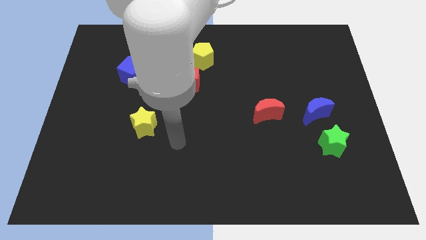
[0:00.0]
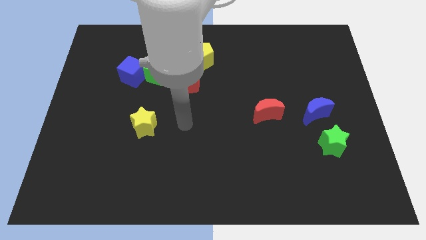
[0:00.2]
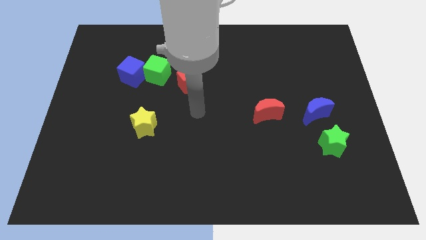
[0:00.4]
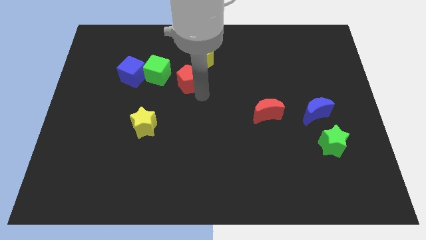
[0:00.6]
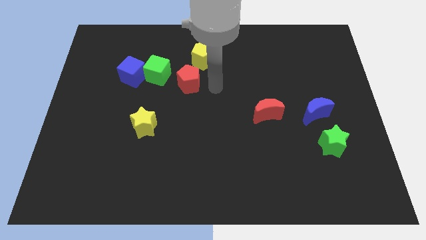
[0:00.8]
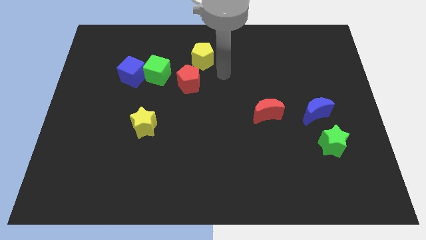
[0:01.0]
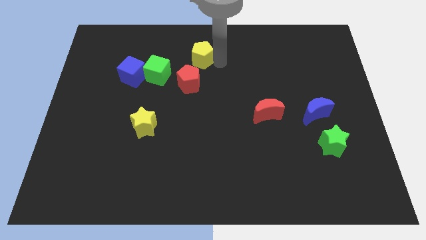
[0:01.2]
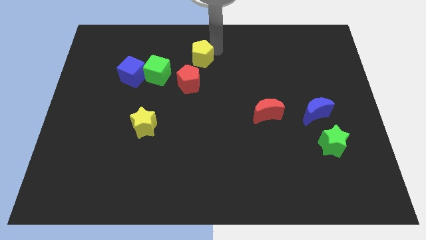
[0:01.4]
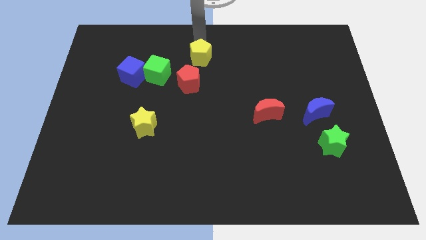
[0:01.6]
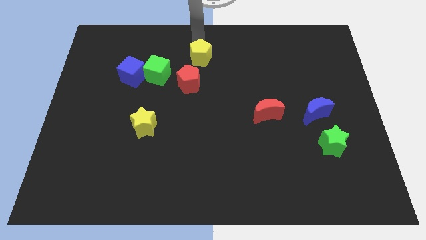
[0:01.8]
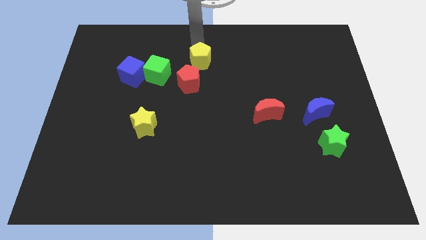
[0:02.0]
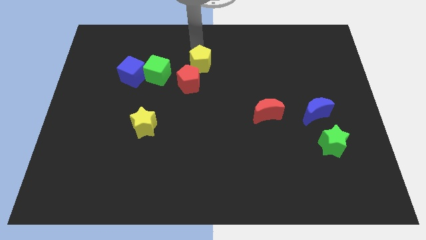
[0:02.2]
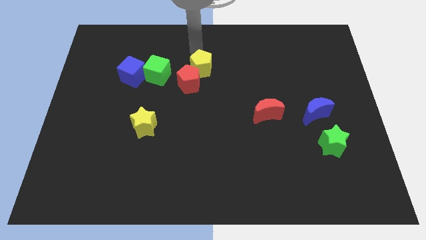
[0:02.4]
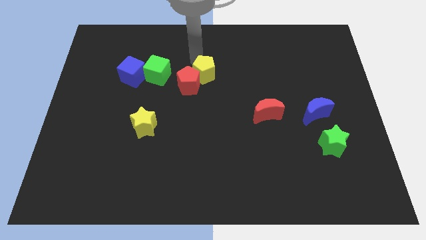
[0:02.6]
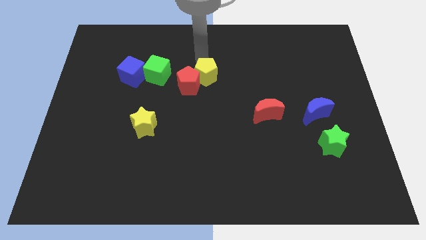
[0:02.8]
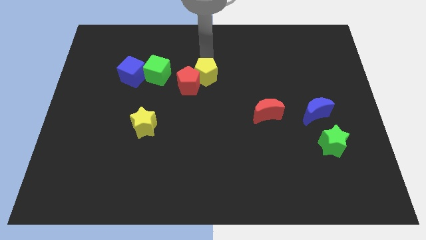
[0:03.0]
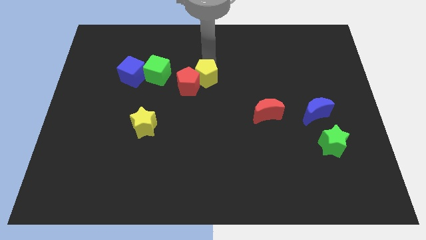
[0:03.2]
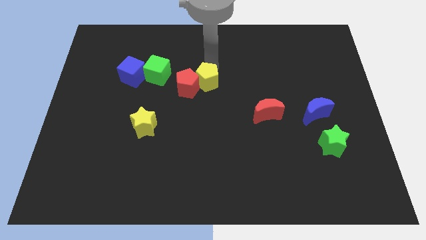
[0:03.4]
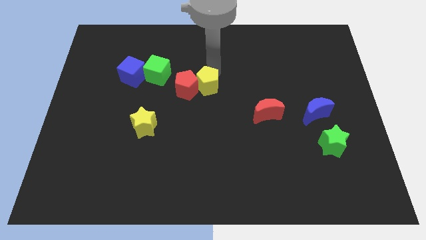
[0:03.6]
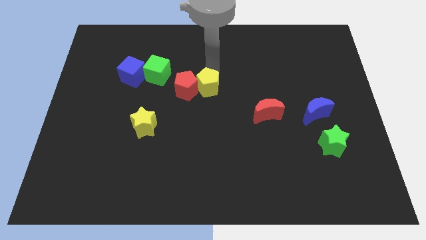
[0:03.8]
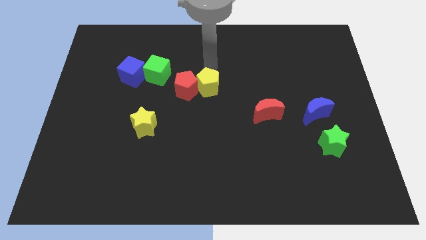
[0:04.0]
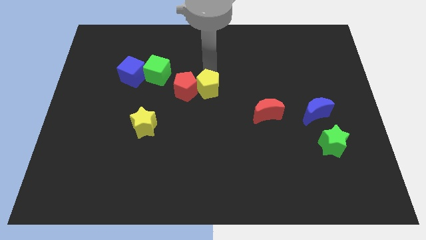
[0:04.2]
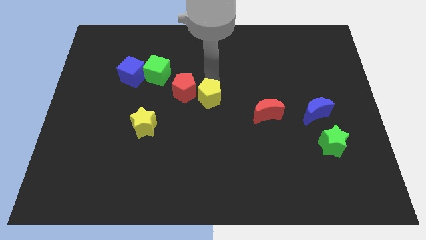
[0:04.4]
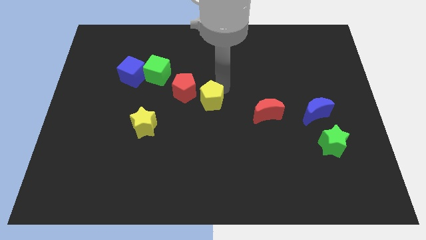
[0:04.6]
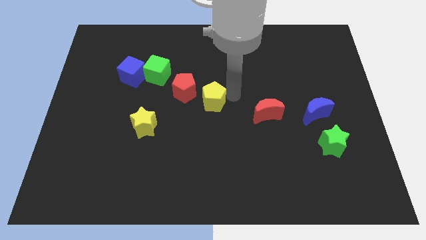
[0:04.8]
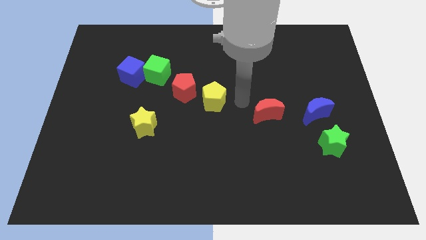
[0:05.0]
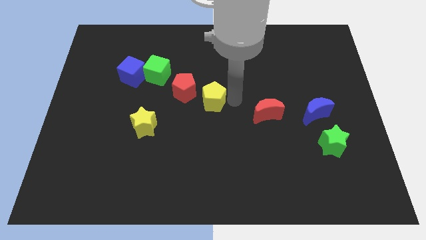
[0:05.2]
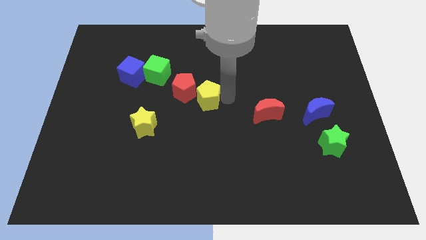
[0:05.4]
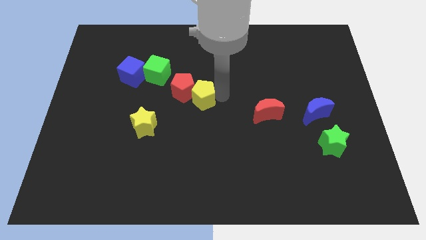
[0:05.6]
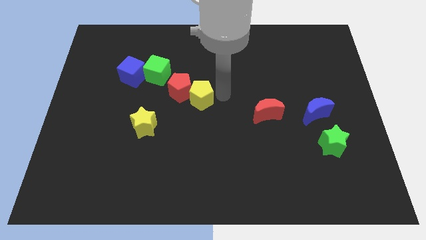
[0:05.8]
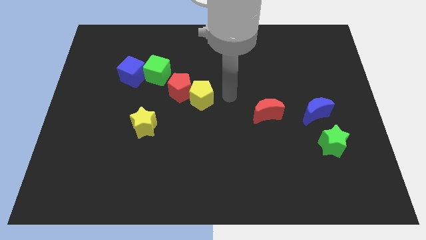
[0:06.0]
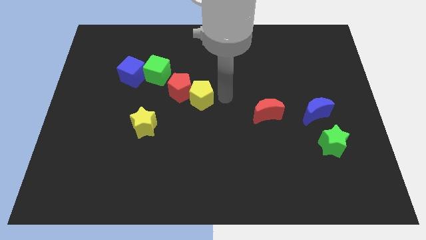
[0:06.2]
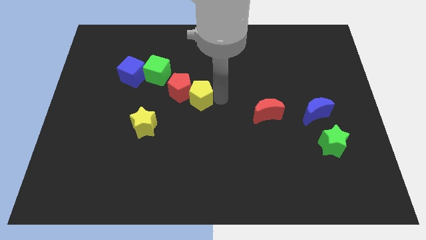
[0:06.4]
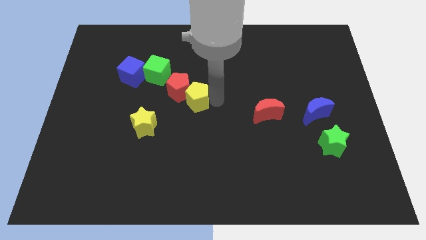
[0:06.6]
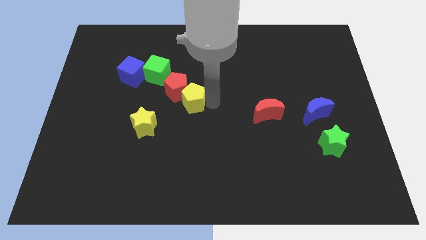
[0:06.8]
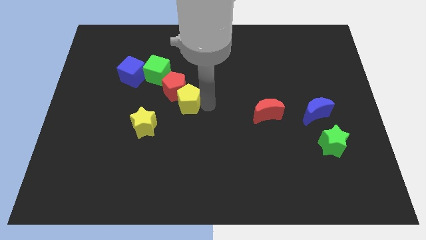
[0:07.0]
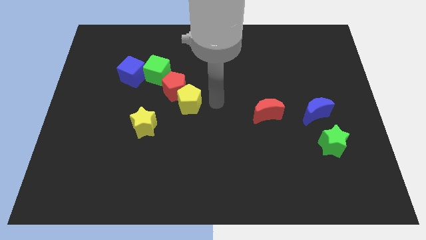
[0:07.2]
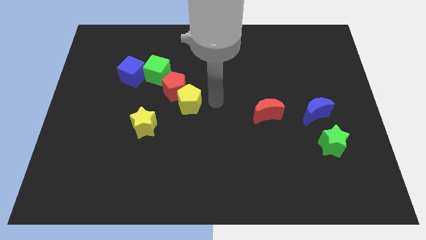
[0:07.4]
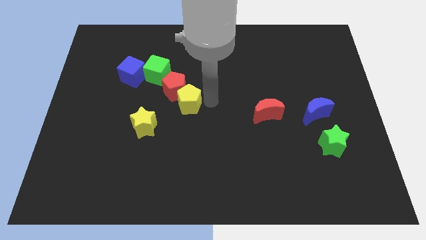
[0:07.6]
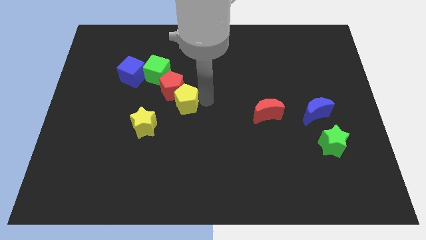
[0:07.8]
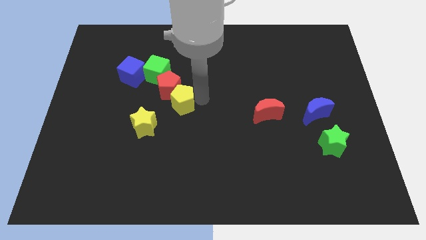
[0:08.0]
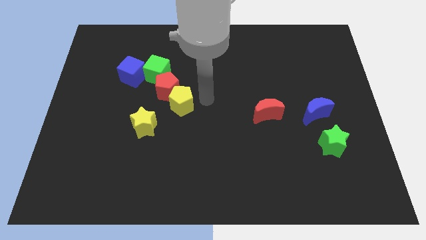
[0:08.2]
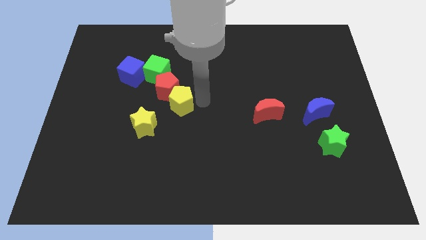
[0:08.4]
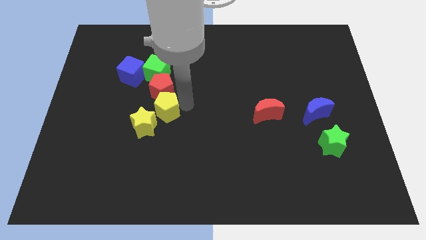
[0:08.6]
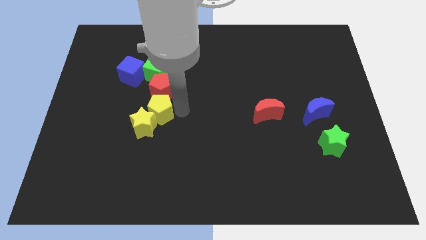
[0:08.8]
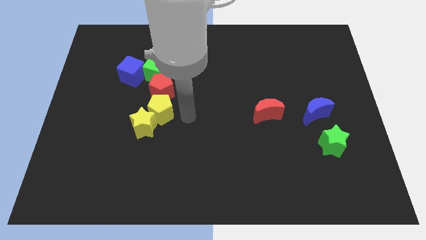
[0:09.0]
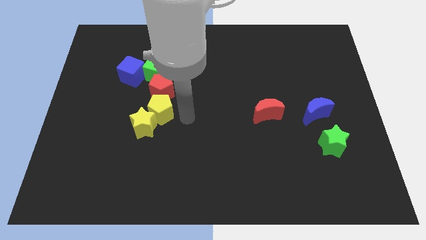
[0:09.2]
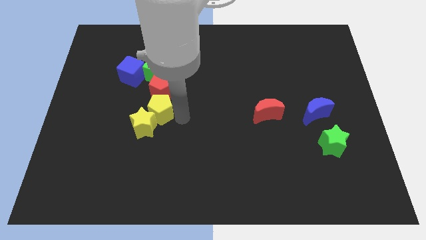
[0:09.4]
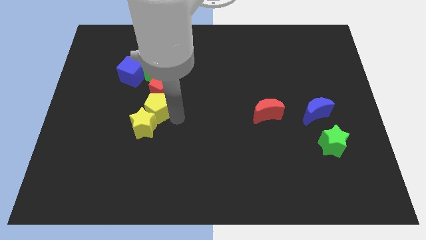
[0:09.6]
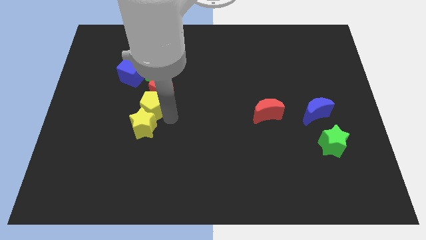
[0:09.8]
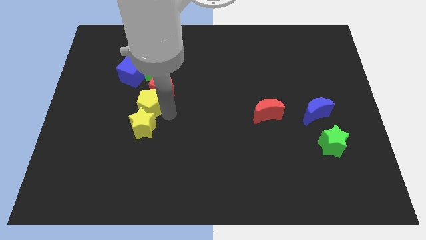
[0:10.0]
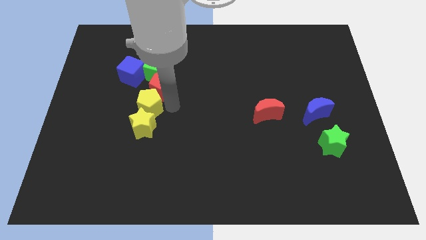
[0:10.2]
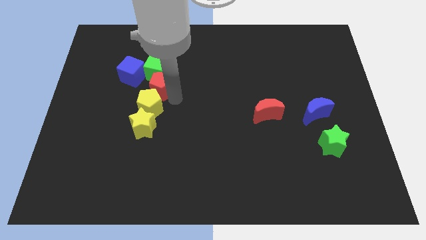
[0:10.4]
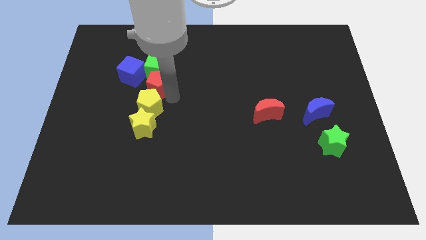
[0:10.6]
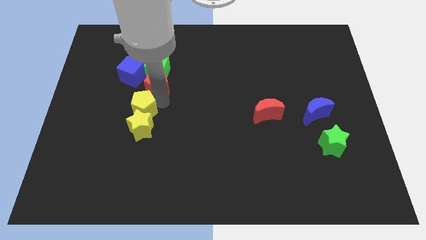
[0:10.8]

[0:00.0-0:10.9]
move the yellow pentagon diagonally downwards and left

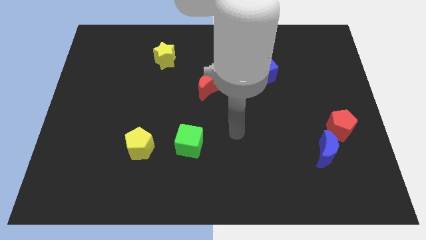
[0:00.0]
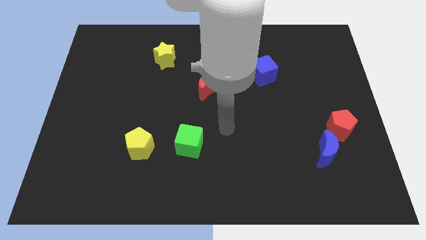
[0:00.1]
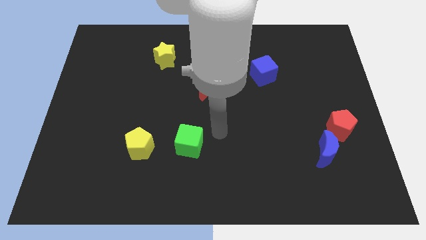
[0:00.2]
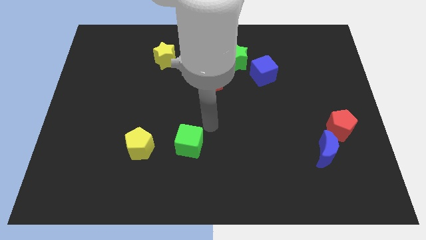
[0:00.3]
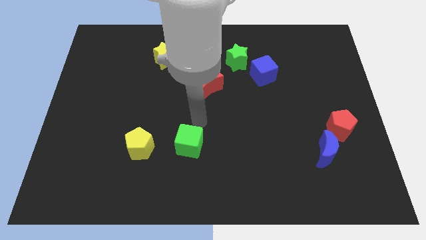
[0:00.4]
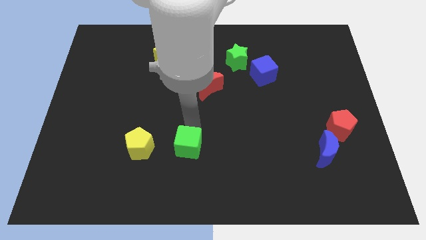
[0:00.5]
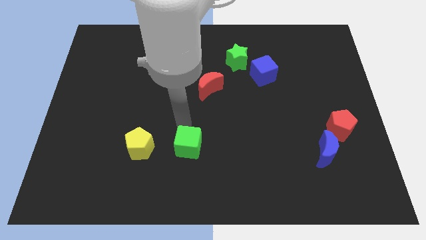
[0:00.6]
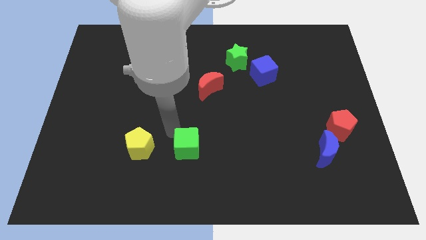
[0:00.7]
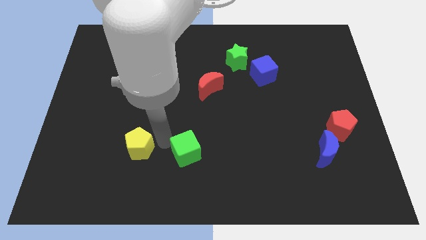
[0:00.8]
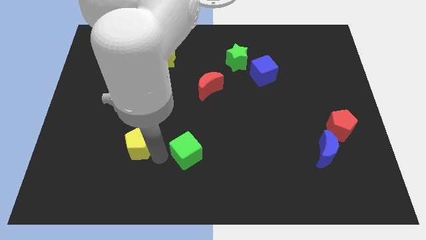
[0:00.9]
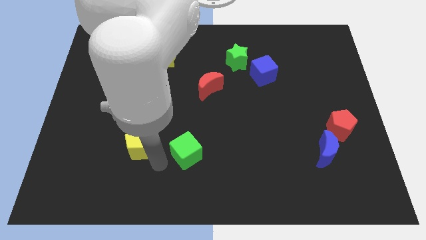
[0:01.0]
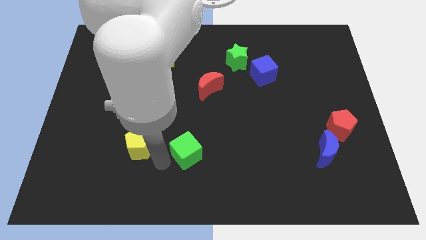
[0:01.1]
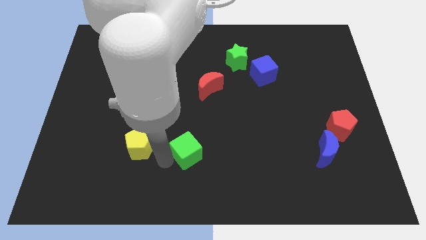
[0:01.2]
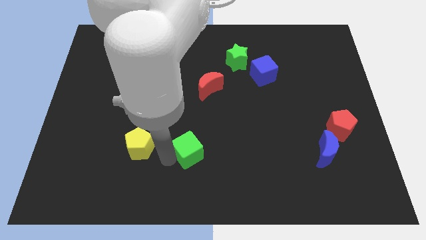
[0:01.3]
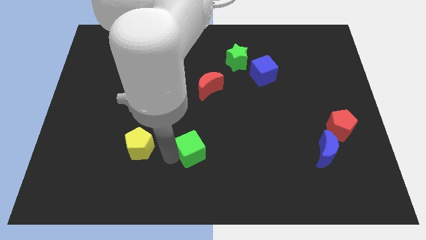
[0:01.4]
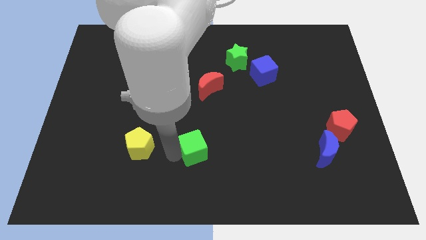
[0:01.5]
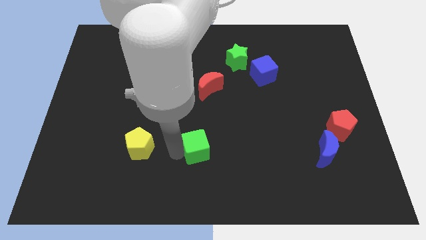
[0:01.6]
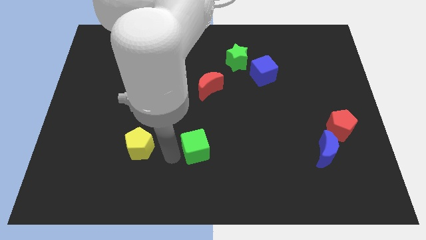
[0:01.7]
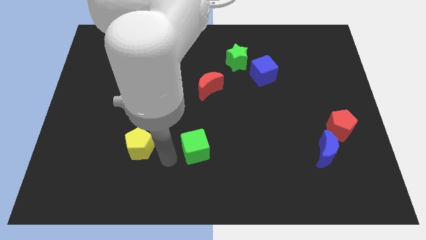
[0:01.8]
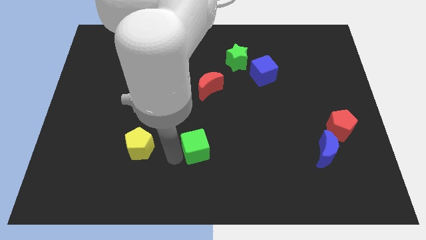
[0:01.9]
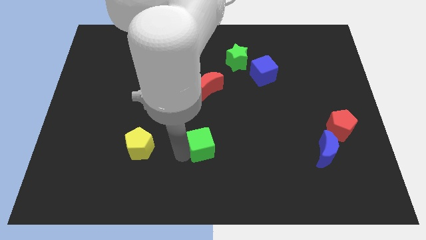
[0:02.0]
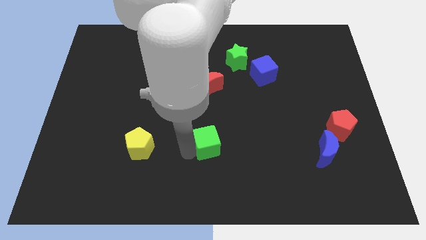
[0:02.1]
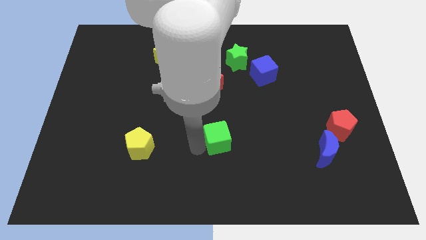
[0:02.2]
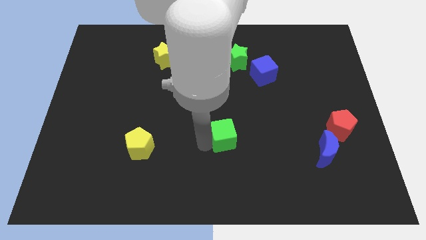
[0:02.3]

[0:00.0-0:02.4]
push the green cube to the right somewhat

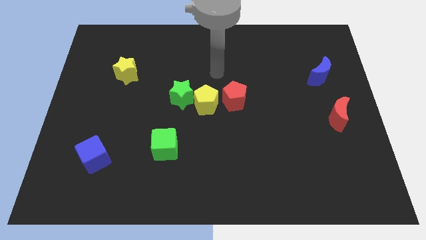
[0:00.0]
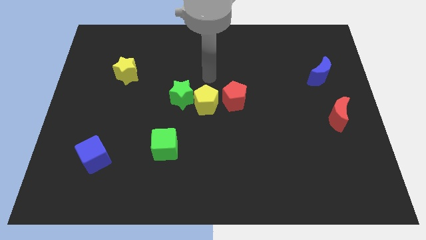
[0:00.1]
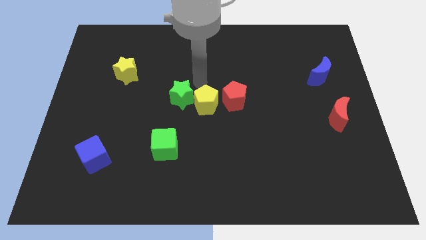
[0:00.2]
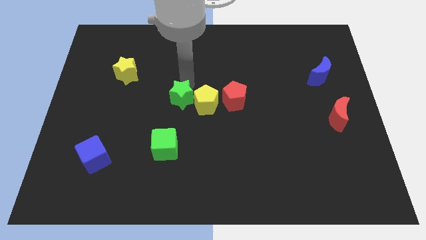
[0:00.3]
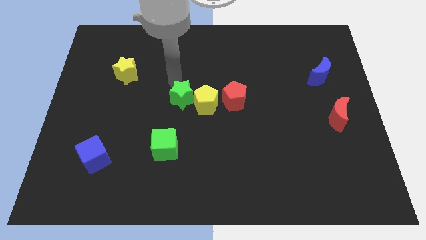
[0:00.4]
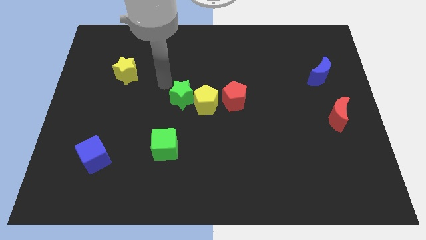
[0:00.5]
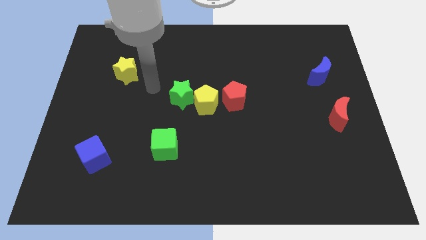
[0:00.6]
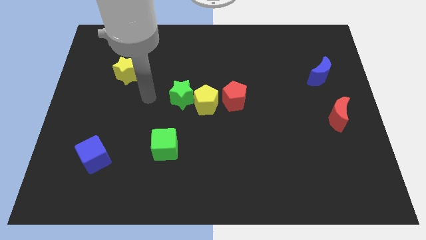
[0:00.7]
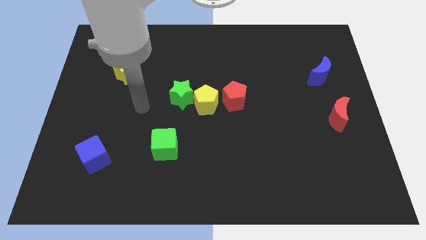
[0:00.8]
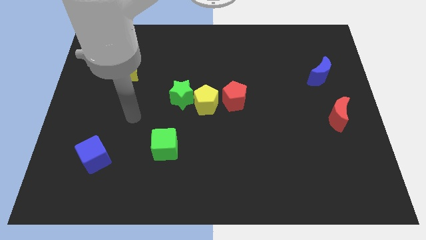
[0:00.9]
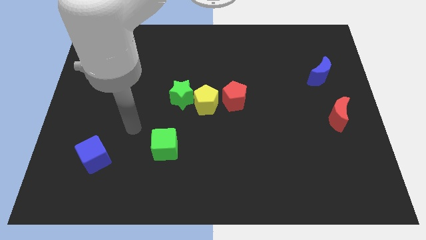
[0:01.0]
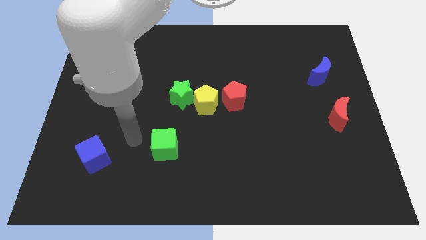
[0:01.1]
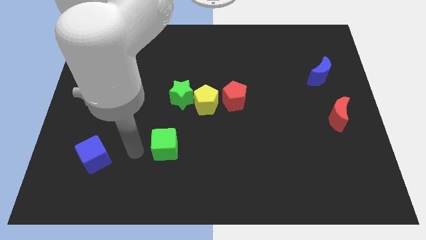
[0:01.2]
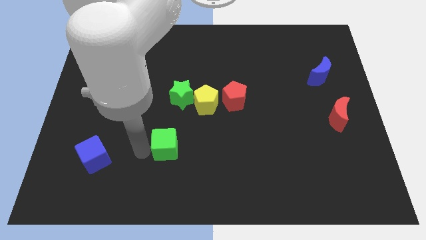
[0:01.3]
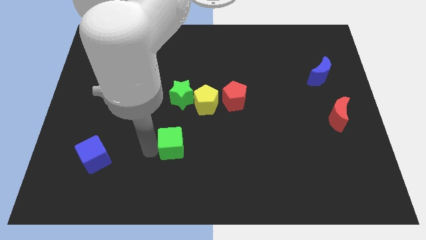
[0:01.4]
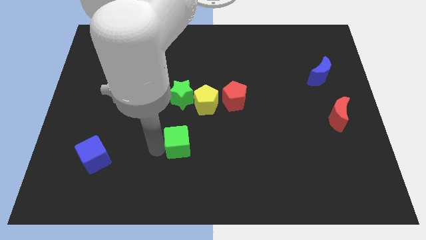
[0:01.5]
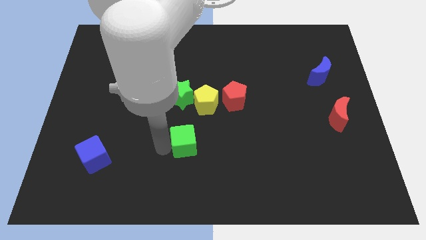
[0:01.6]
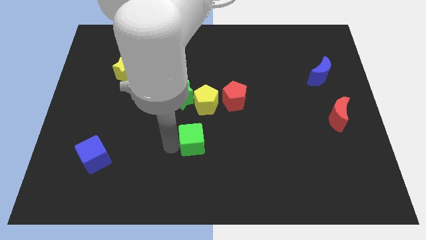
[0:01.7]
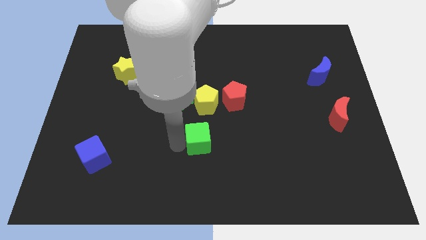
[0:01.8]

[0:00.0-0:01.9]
slightly move the green cube right
